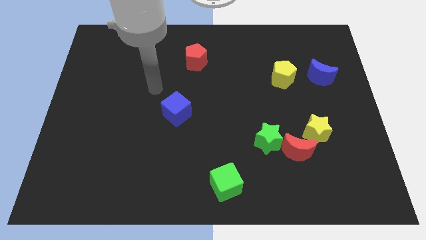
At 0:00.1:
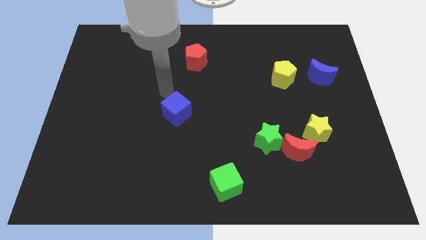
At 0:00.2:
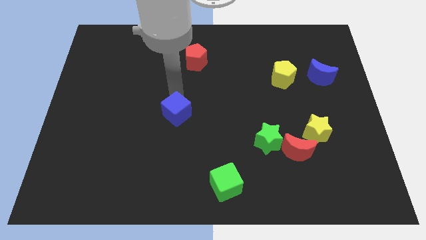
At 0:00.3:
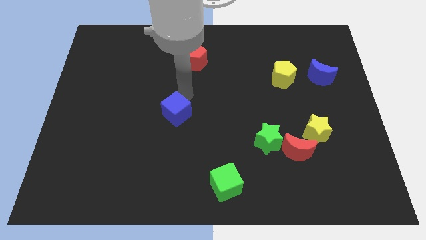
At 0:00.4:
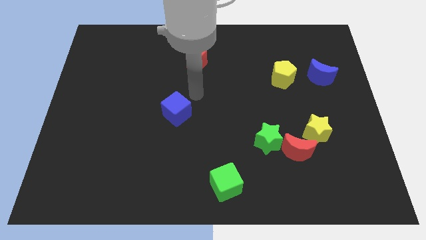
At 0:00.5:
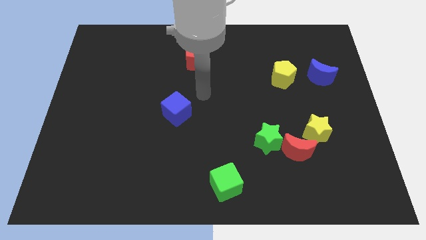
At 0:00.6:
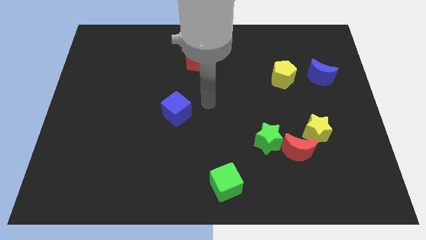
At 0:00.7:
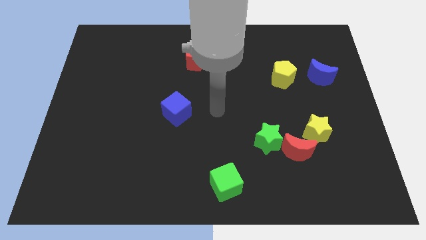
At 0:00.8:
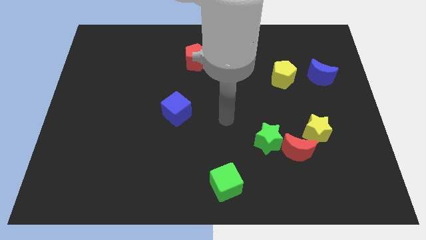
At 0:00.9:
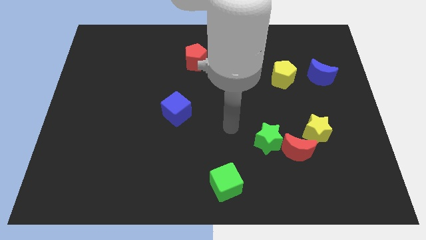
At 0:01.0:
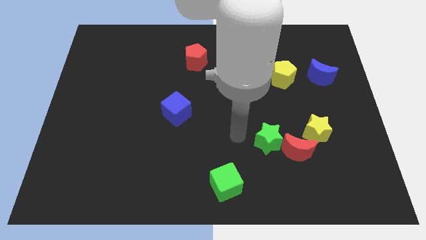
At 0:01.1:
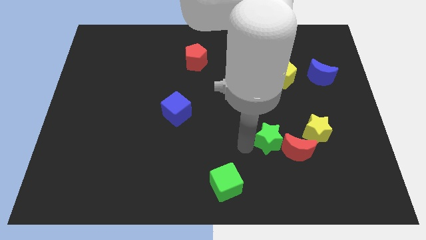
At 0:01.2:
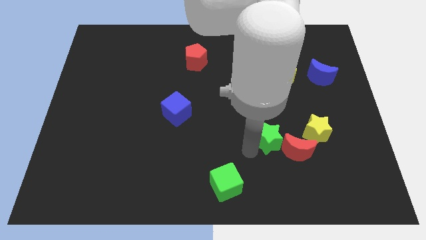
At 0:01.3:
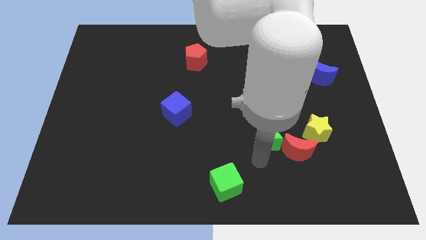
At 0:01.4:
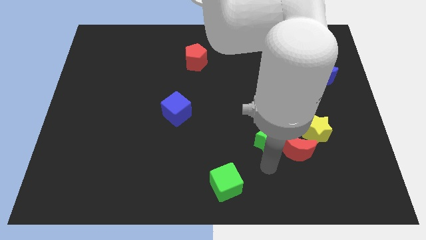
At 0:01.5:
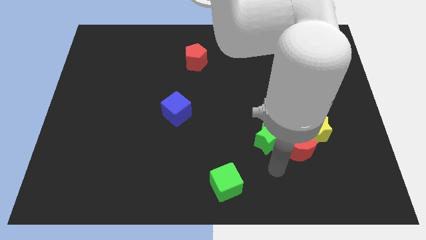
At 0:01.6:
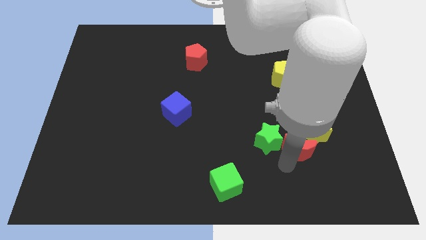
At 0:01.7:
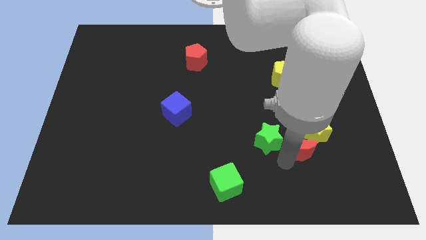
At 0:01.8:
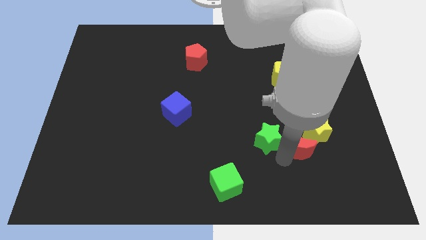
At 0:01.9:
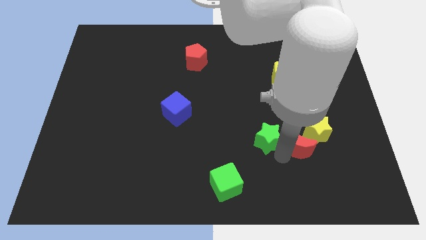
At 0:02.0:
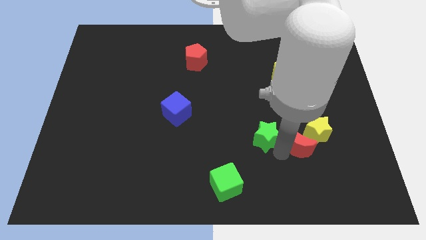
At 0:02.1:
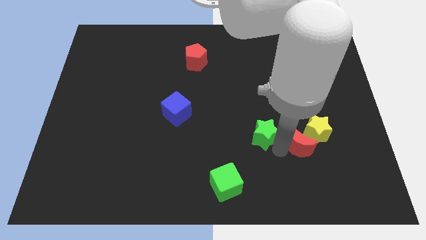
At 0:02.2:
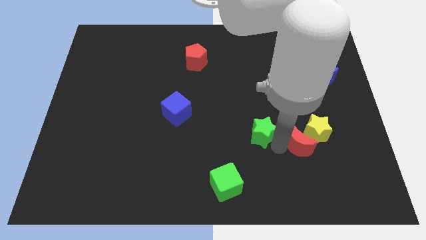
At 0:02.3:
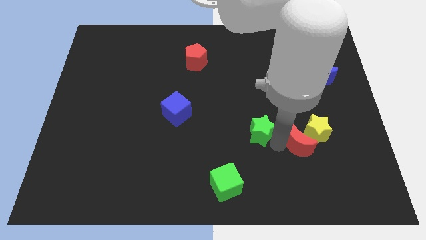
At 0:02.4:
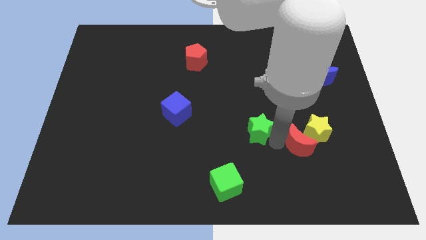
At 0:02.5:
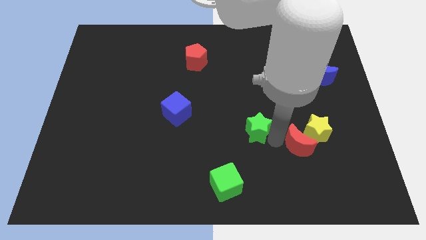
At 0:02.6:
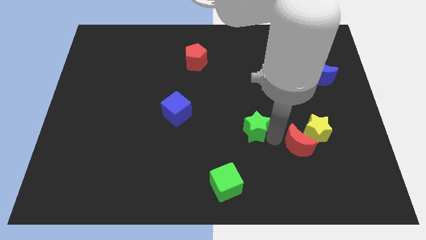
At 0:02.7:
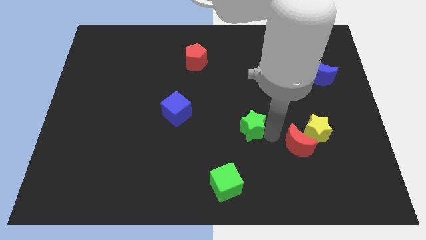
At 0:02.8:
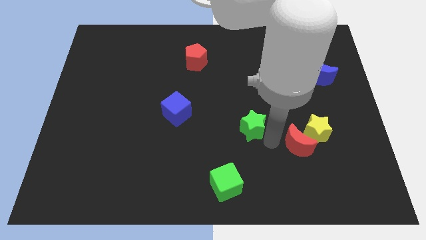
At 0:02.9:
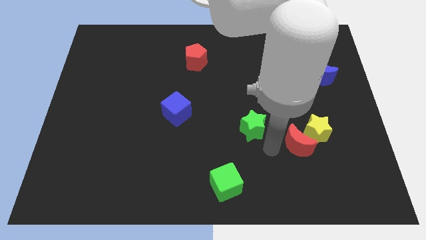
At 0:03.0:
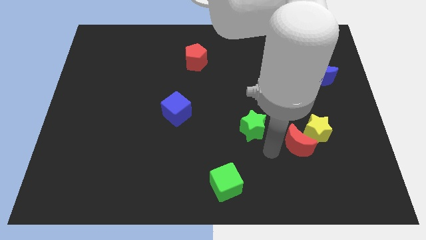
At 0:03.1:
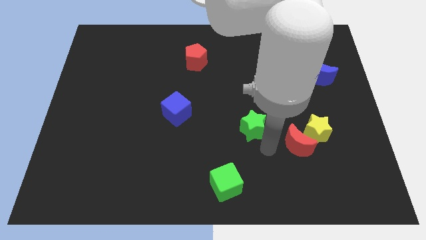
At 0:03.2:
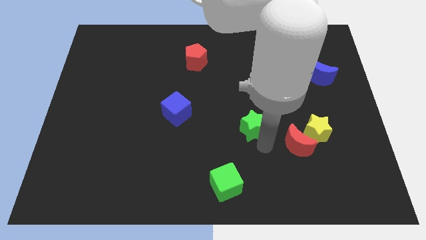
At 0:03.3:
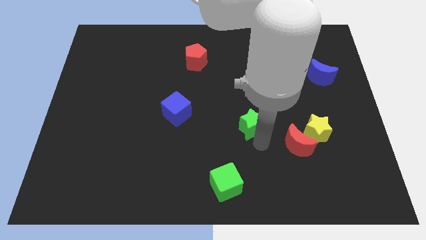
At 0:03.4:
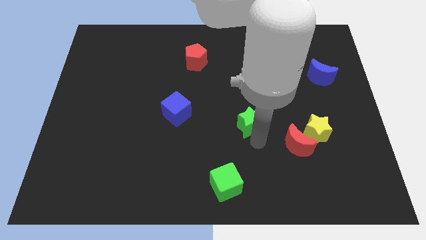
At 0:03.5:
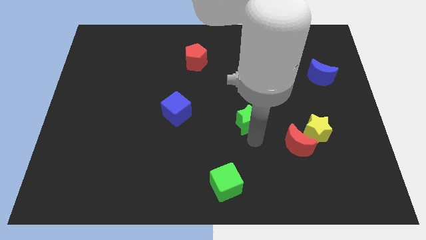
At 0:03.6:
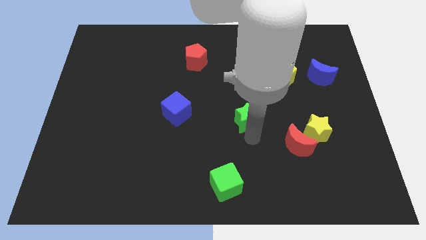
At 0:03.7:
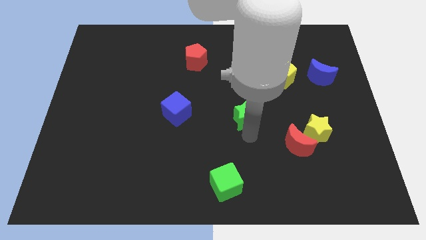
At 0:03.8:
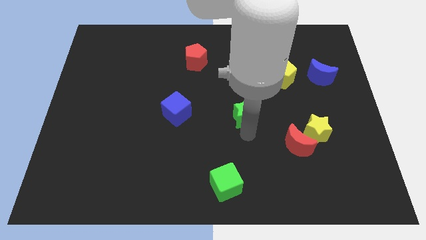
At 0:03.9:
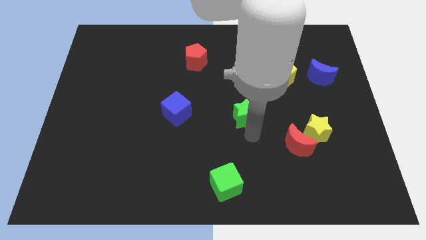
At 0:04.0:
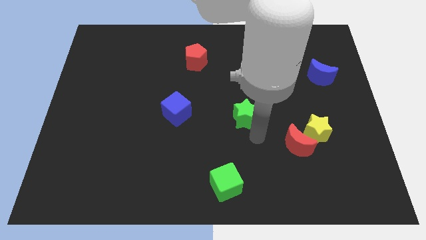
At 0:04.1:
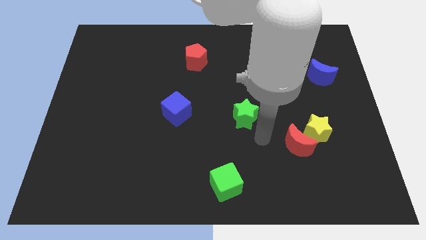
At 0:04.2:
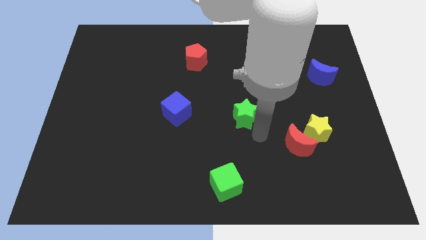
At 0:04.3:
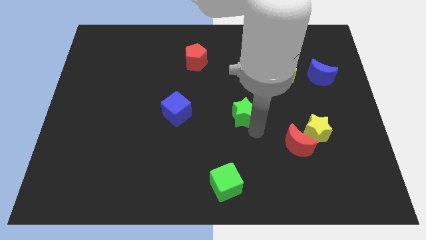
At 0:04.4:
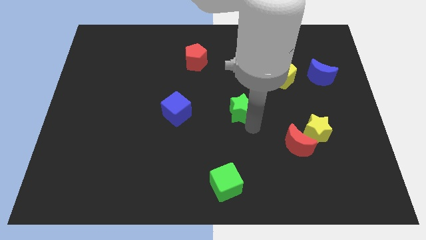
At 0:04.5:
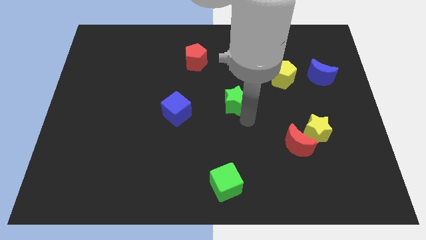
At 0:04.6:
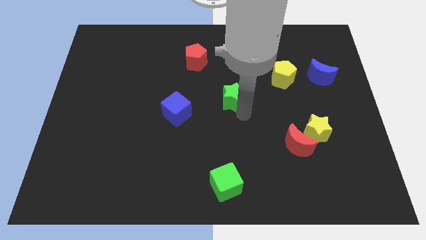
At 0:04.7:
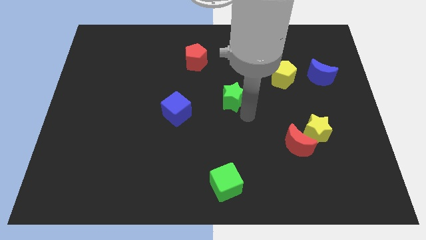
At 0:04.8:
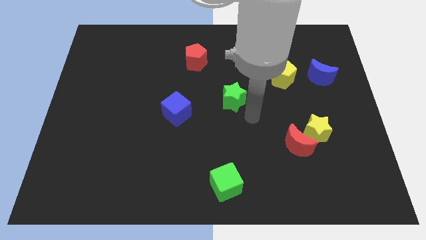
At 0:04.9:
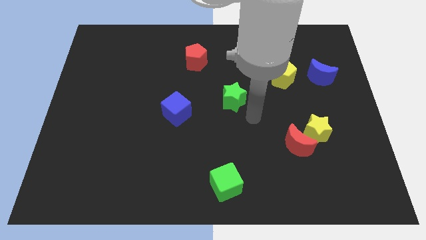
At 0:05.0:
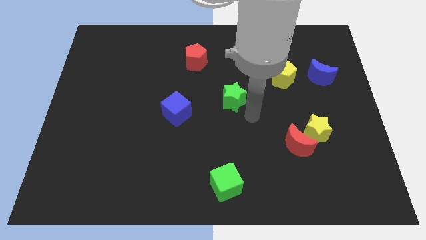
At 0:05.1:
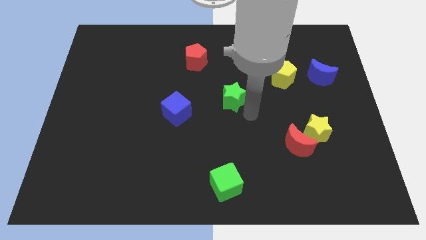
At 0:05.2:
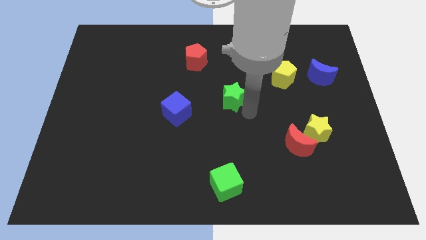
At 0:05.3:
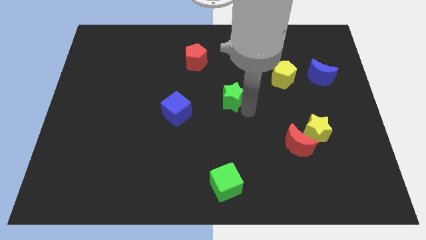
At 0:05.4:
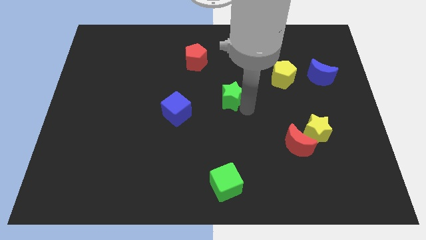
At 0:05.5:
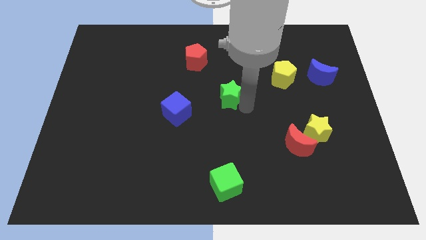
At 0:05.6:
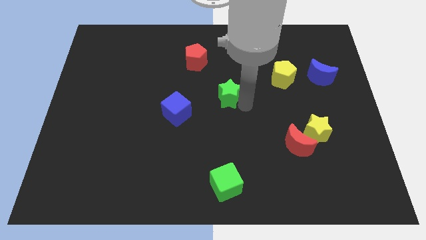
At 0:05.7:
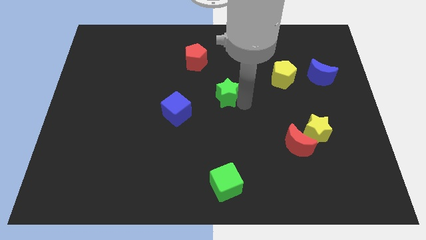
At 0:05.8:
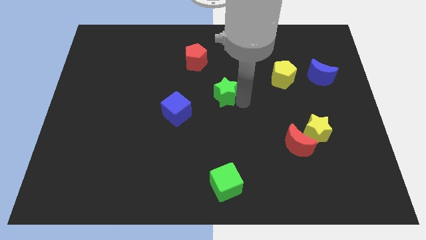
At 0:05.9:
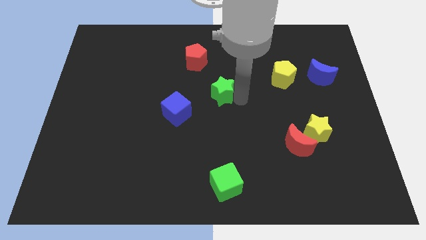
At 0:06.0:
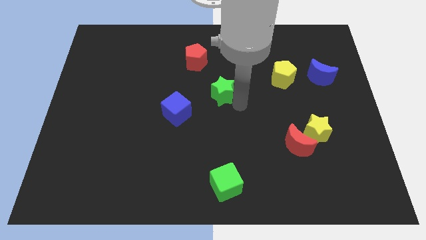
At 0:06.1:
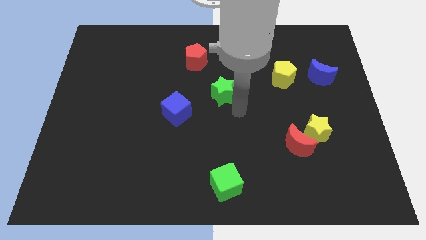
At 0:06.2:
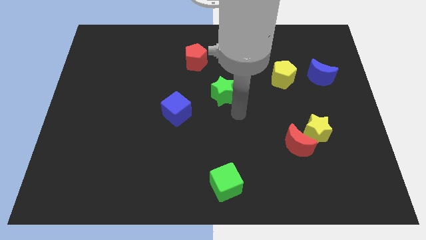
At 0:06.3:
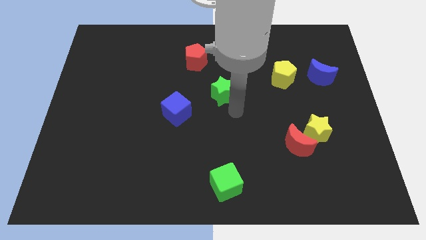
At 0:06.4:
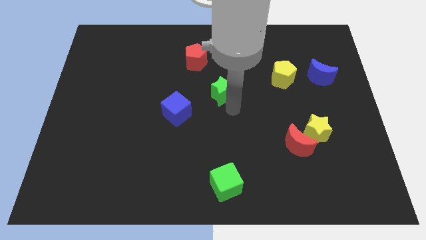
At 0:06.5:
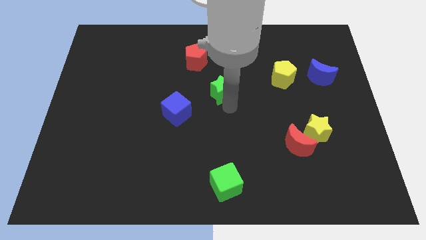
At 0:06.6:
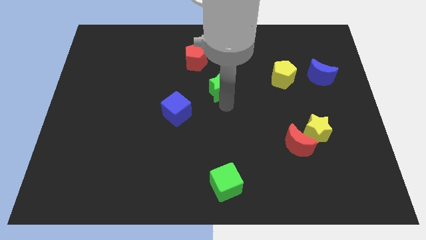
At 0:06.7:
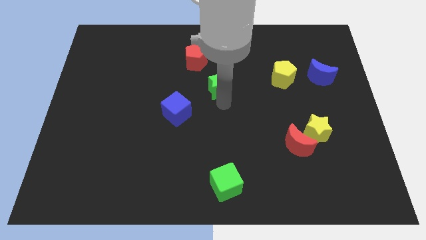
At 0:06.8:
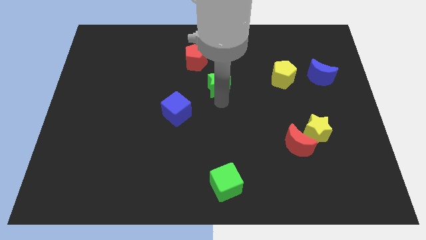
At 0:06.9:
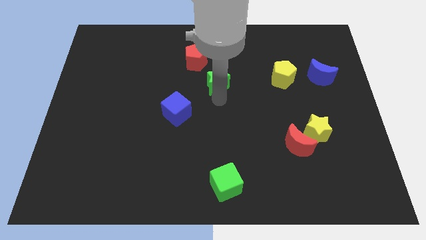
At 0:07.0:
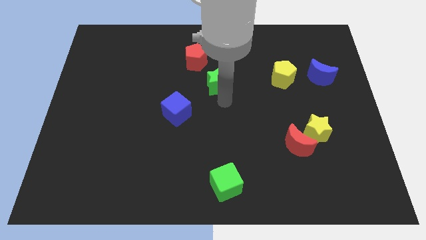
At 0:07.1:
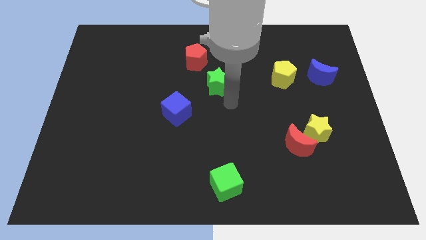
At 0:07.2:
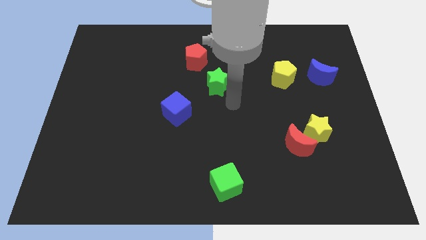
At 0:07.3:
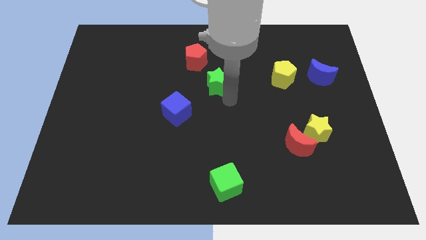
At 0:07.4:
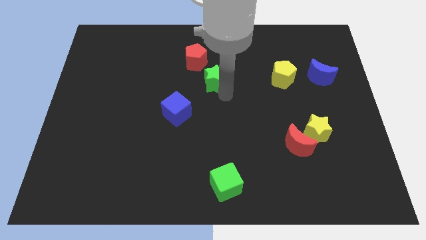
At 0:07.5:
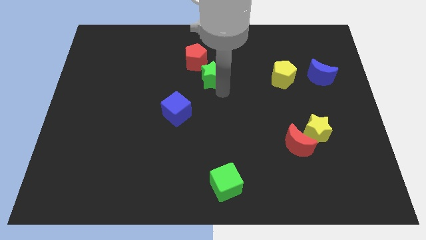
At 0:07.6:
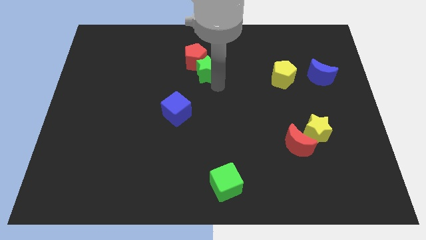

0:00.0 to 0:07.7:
push the green star to the red pentagon
